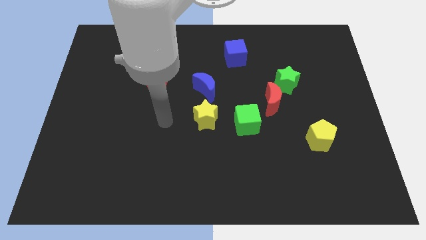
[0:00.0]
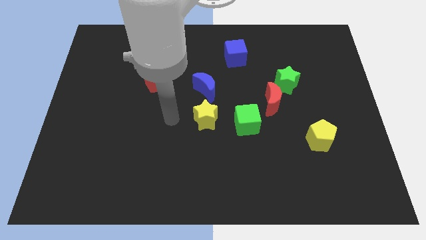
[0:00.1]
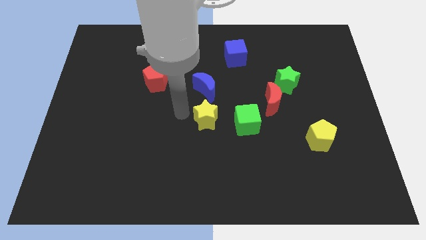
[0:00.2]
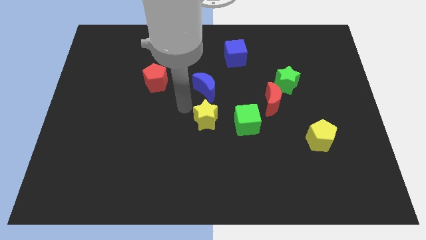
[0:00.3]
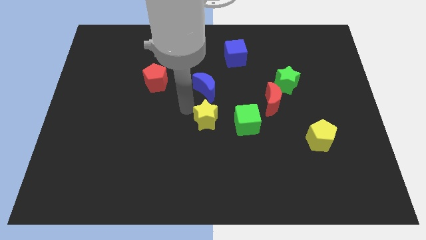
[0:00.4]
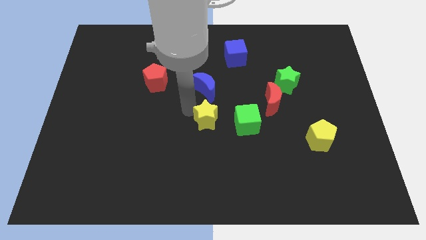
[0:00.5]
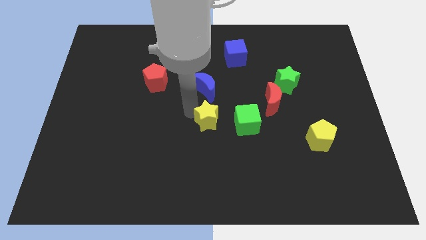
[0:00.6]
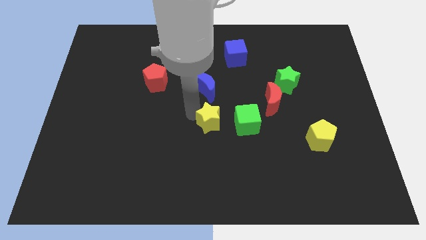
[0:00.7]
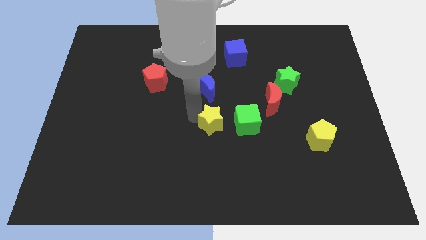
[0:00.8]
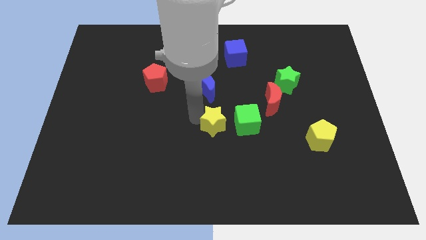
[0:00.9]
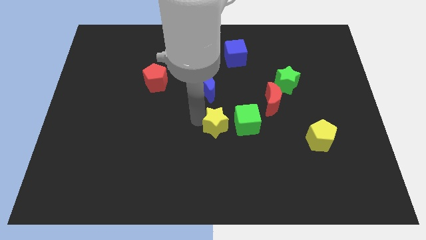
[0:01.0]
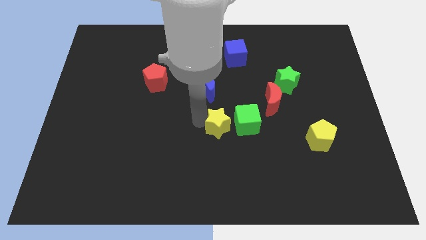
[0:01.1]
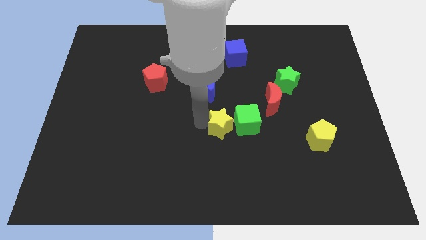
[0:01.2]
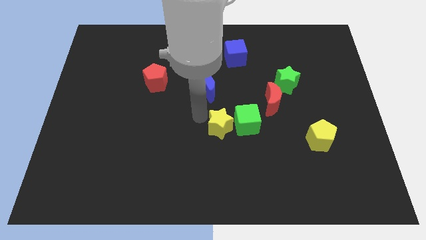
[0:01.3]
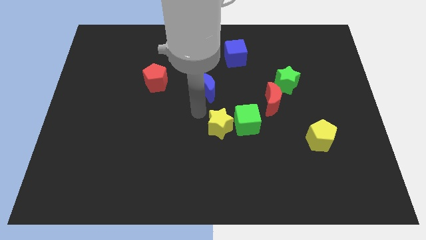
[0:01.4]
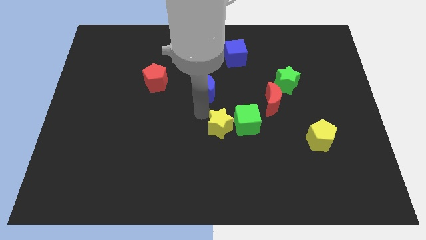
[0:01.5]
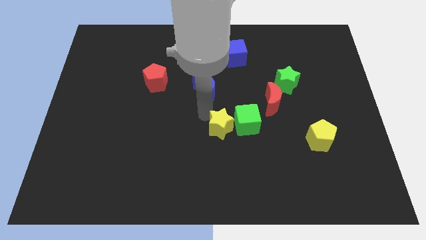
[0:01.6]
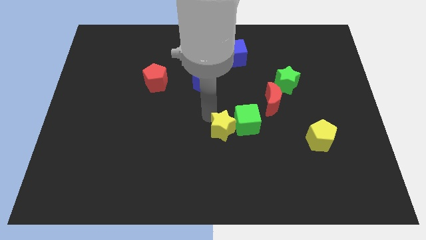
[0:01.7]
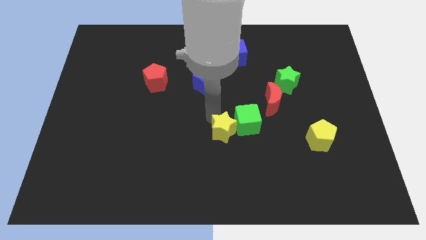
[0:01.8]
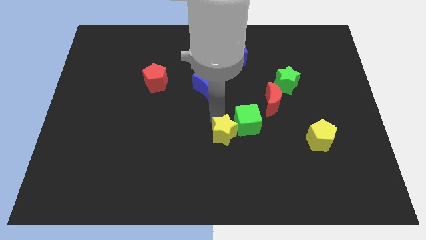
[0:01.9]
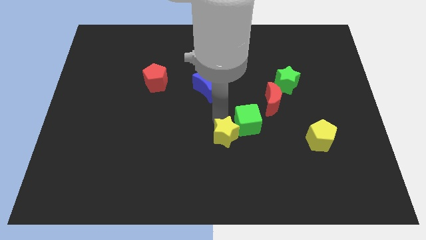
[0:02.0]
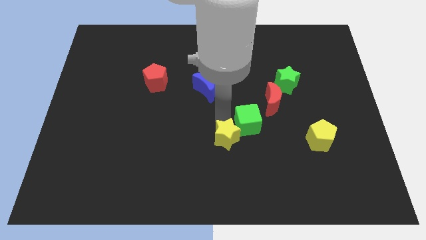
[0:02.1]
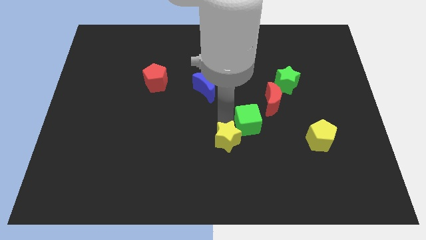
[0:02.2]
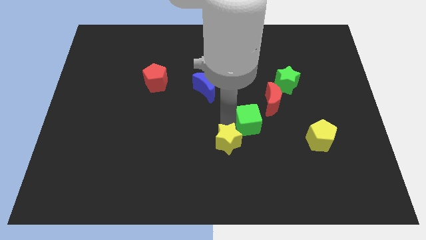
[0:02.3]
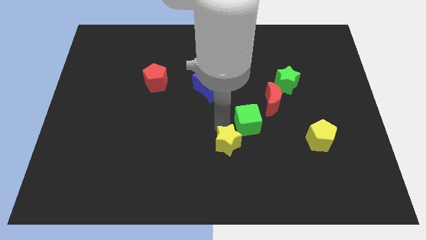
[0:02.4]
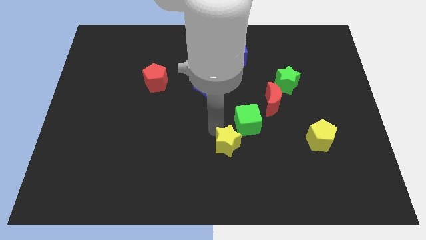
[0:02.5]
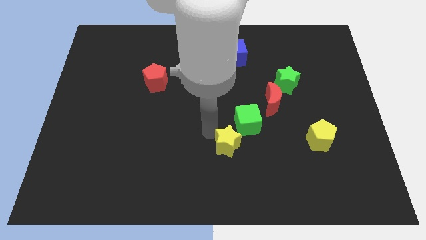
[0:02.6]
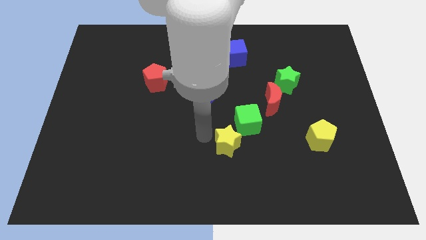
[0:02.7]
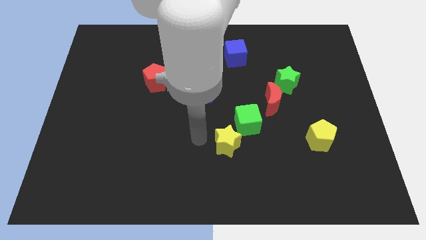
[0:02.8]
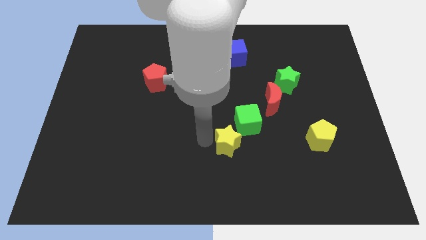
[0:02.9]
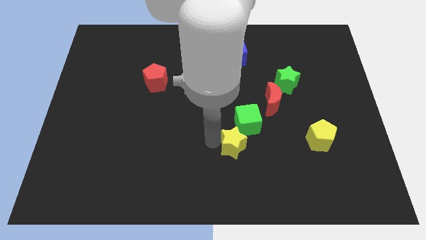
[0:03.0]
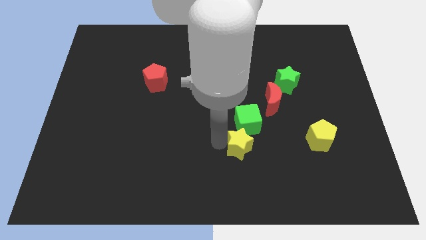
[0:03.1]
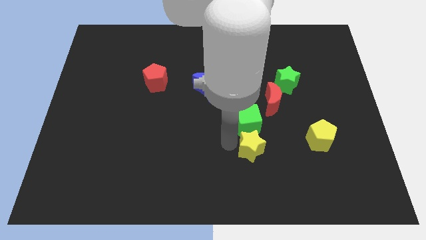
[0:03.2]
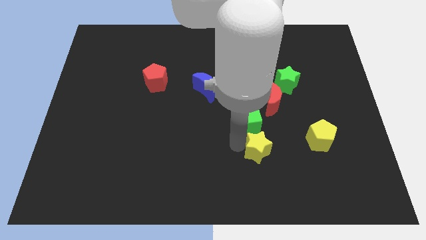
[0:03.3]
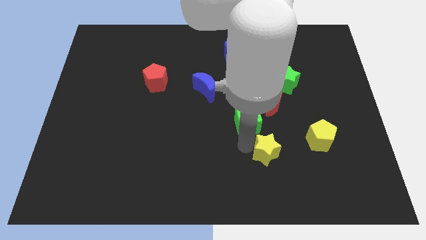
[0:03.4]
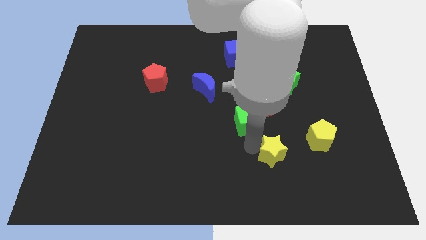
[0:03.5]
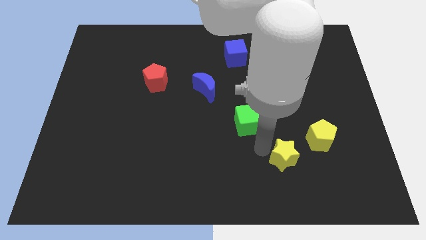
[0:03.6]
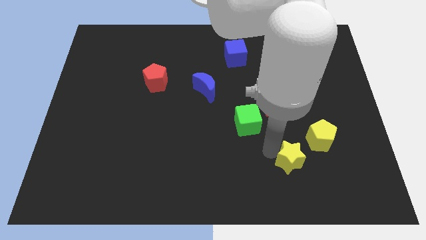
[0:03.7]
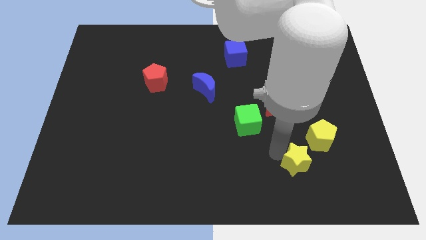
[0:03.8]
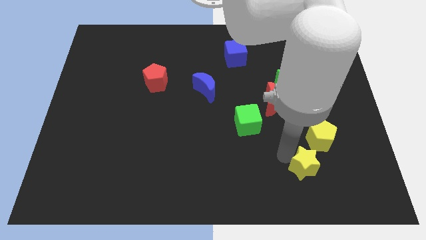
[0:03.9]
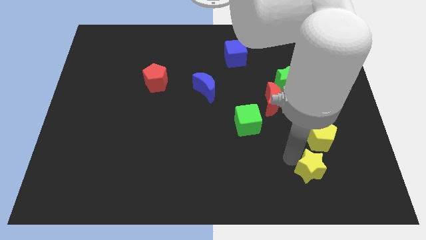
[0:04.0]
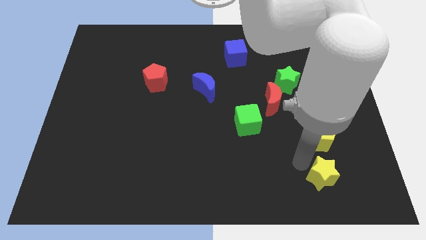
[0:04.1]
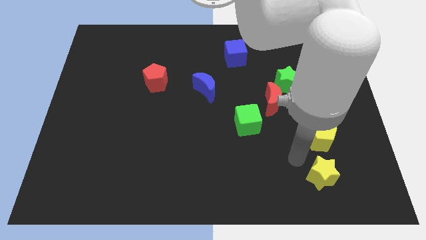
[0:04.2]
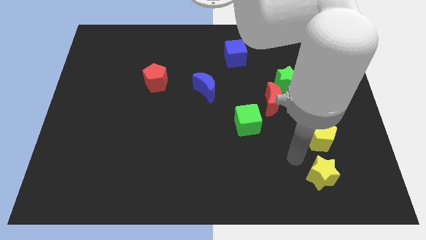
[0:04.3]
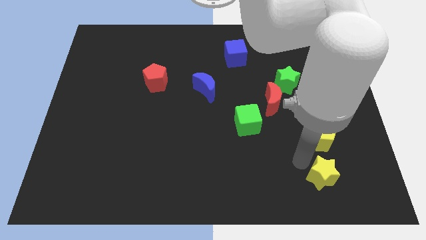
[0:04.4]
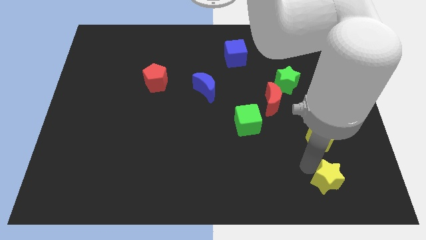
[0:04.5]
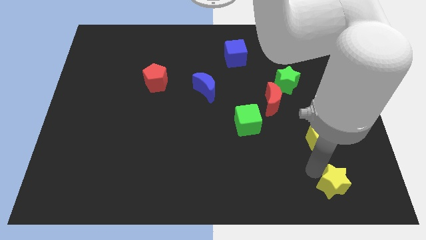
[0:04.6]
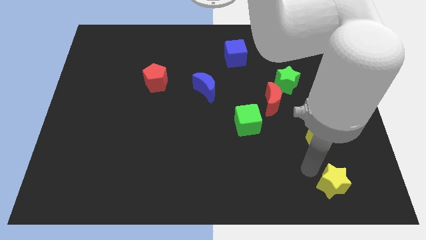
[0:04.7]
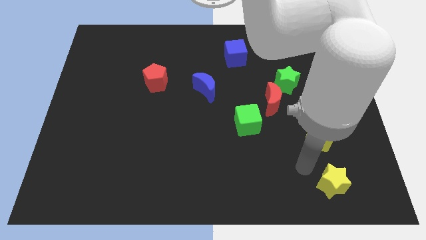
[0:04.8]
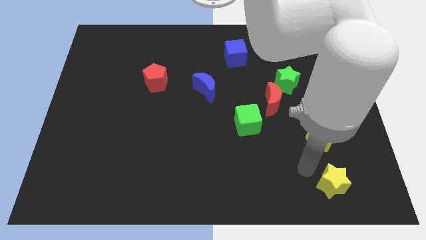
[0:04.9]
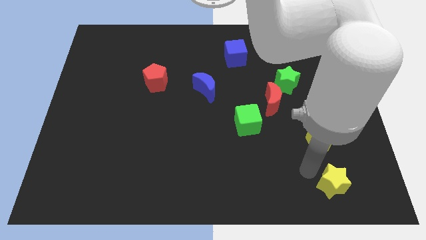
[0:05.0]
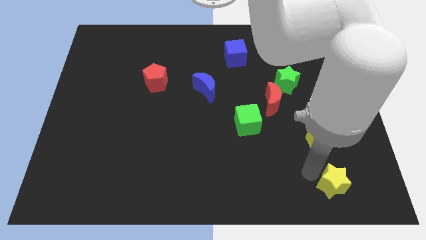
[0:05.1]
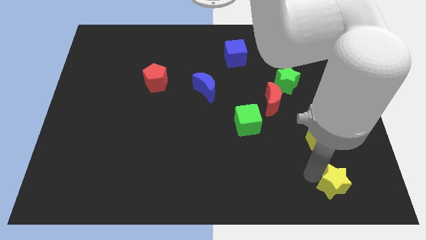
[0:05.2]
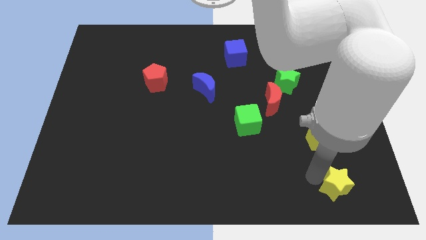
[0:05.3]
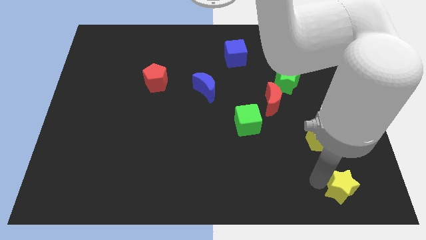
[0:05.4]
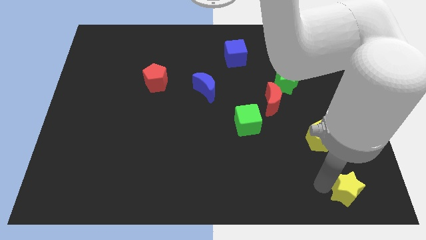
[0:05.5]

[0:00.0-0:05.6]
put the yellow star to the bottom right

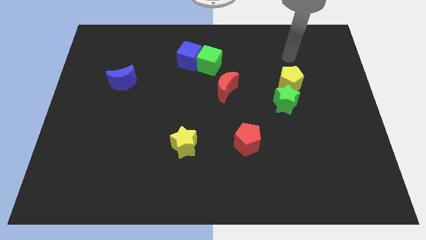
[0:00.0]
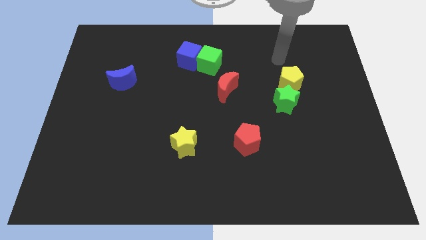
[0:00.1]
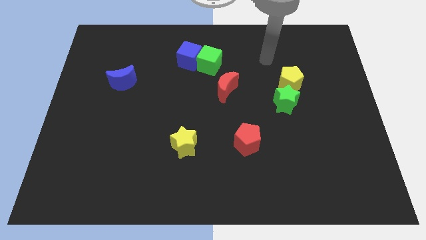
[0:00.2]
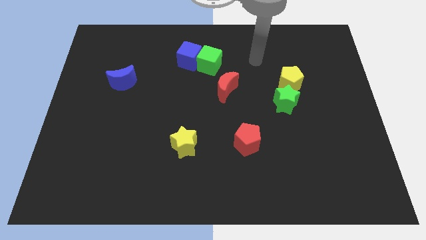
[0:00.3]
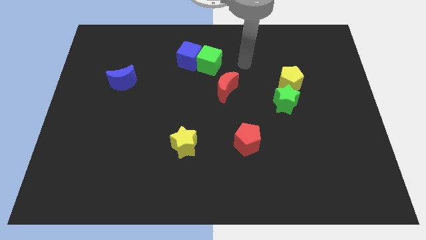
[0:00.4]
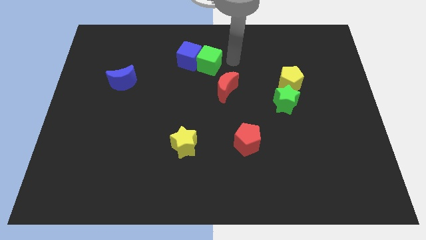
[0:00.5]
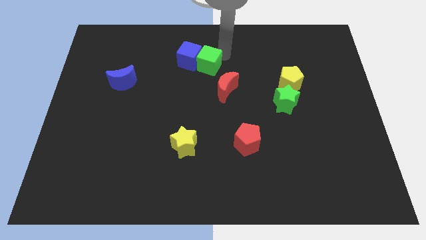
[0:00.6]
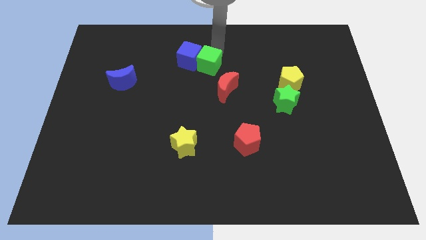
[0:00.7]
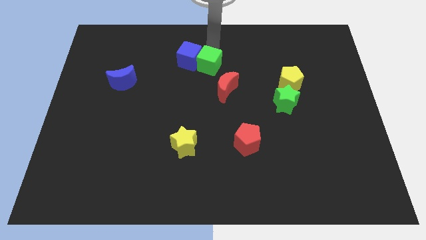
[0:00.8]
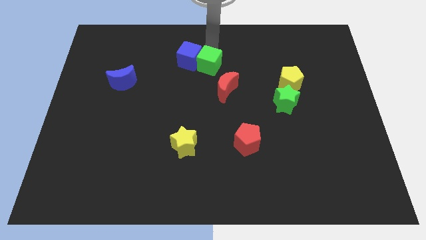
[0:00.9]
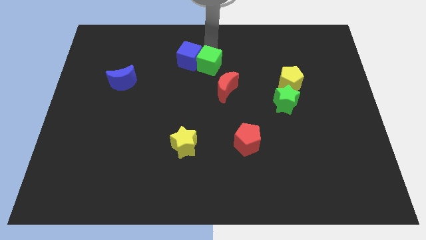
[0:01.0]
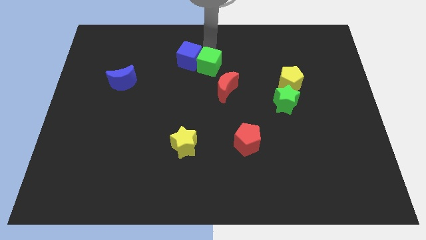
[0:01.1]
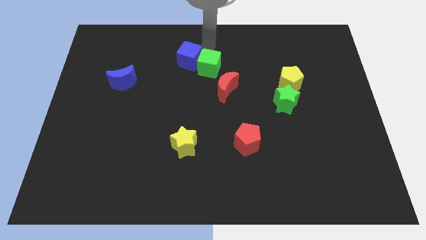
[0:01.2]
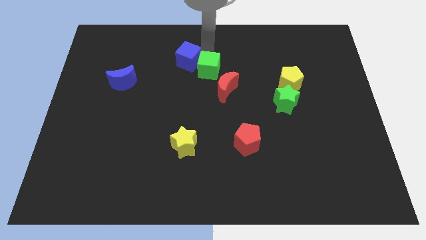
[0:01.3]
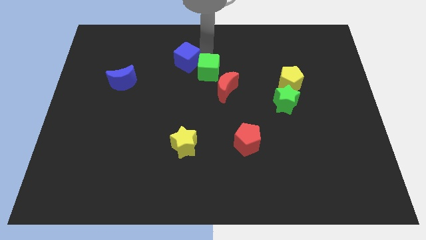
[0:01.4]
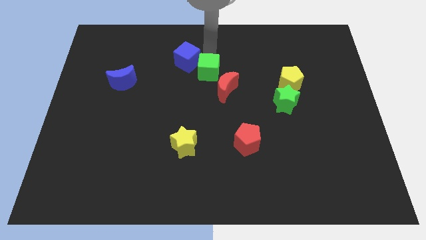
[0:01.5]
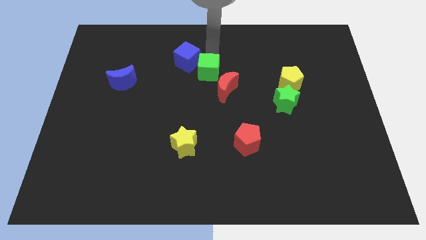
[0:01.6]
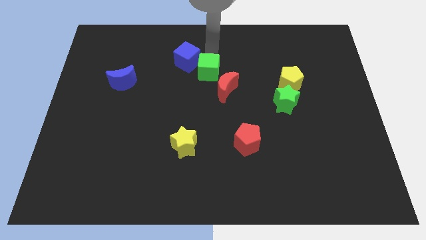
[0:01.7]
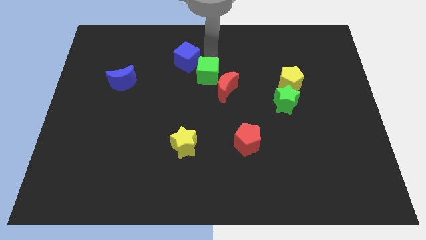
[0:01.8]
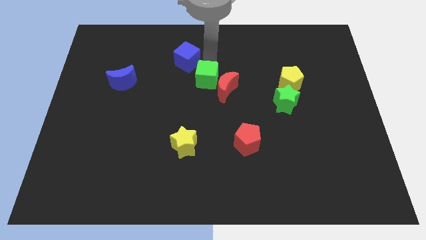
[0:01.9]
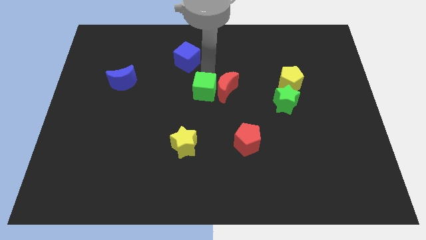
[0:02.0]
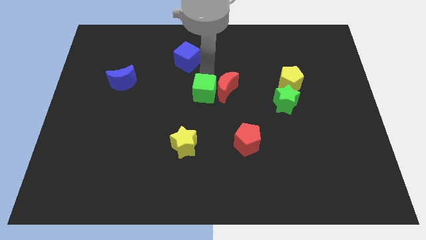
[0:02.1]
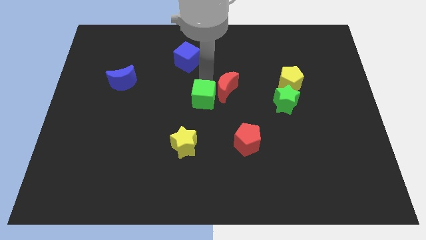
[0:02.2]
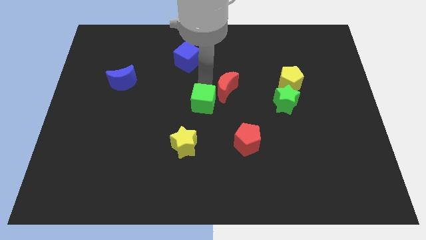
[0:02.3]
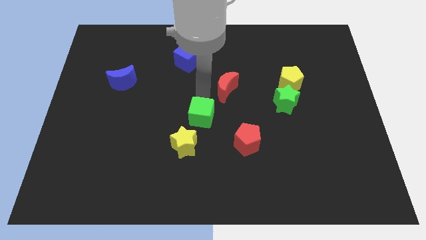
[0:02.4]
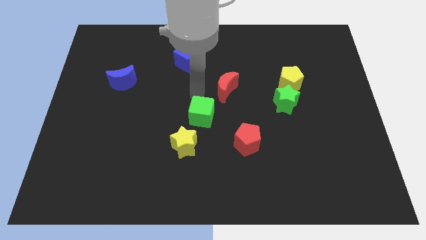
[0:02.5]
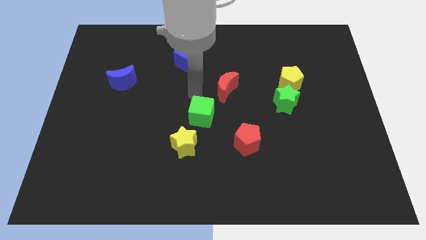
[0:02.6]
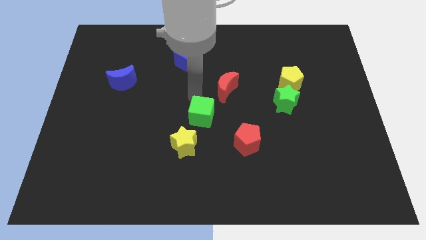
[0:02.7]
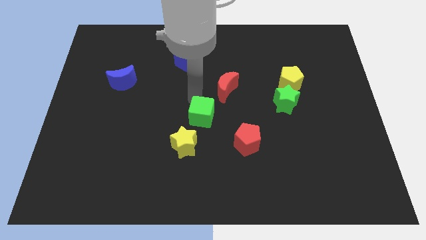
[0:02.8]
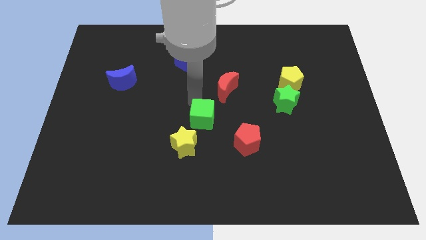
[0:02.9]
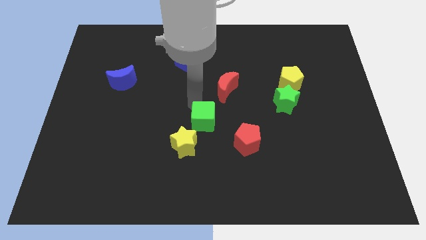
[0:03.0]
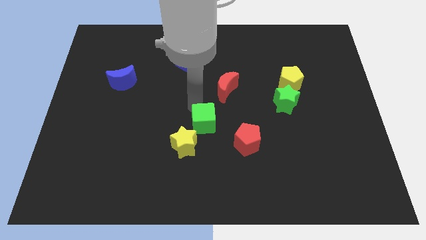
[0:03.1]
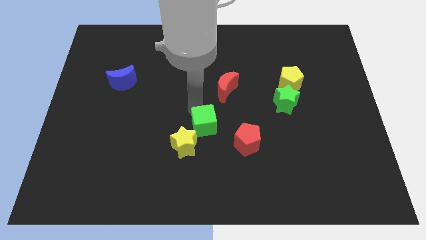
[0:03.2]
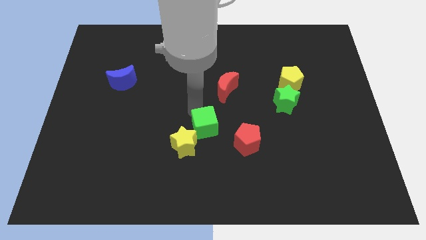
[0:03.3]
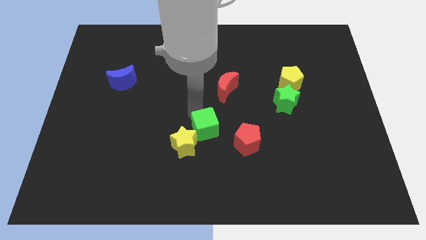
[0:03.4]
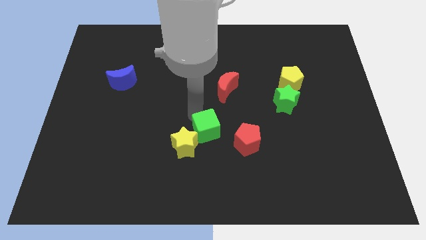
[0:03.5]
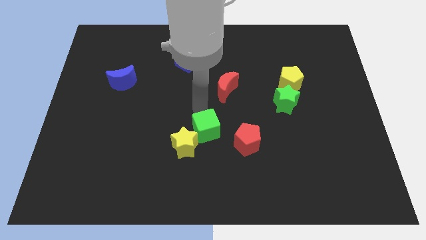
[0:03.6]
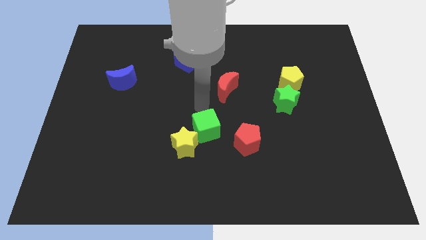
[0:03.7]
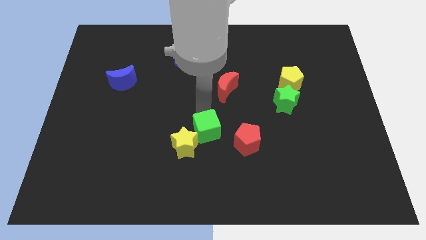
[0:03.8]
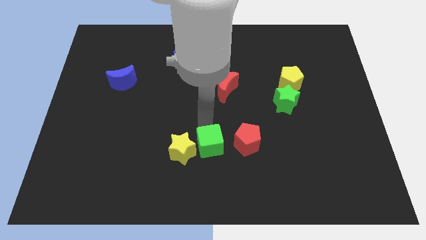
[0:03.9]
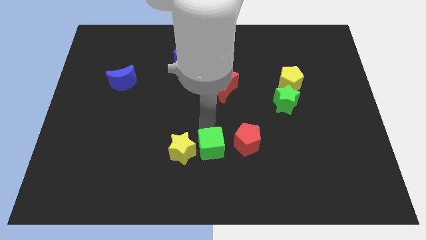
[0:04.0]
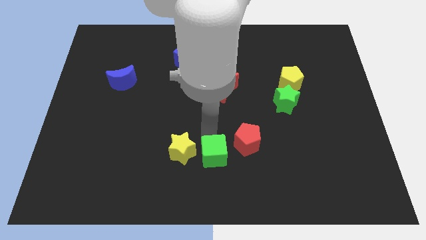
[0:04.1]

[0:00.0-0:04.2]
slide the green cube to the bottom side
